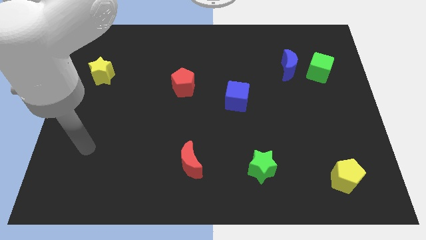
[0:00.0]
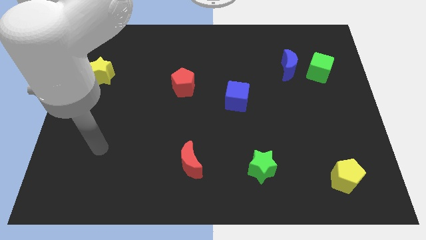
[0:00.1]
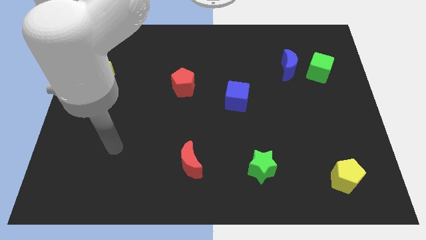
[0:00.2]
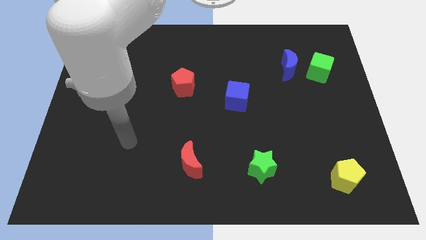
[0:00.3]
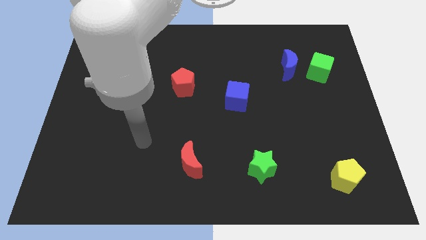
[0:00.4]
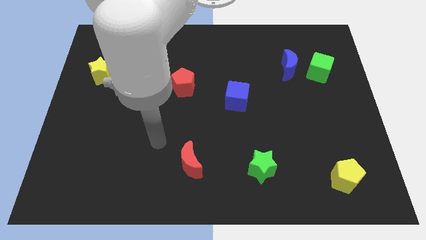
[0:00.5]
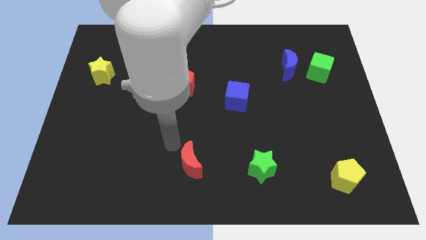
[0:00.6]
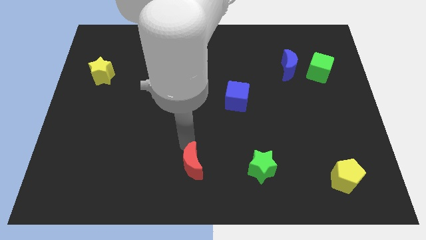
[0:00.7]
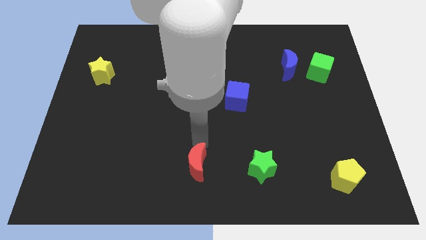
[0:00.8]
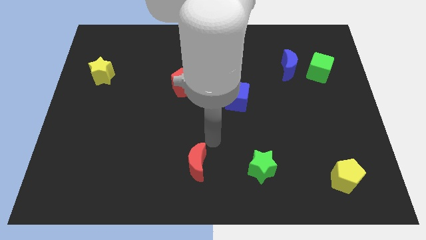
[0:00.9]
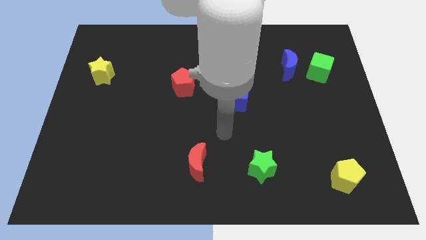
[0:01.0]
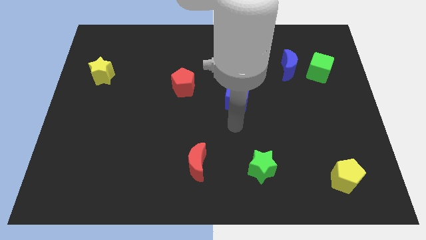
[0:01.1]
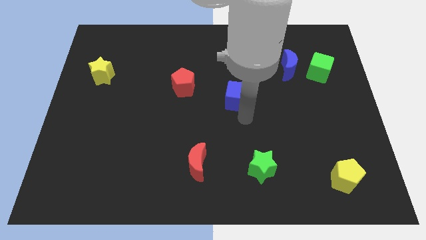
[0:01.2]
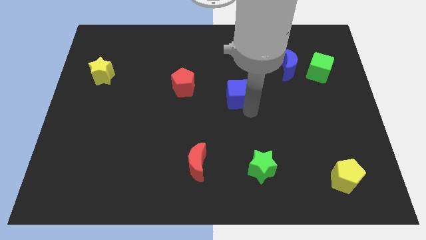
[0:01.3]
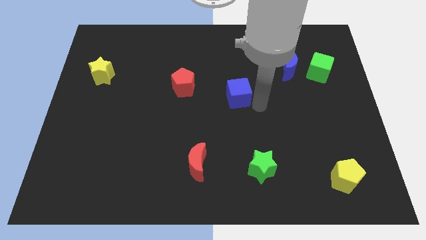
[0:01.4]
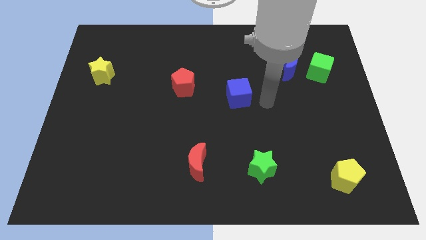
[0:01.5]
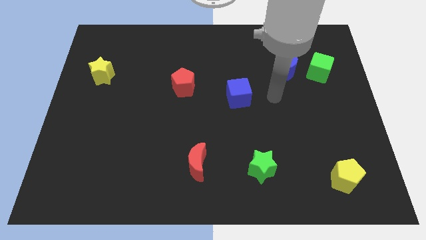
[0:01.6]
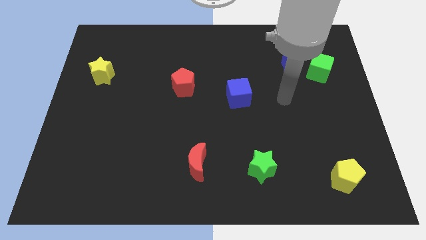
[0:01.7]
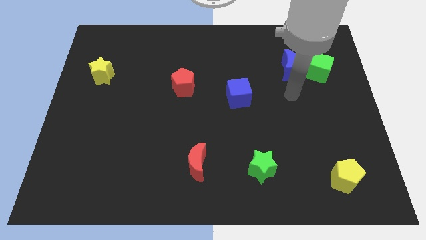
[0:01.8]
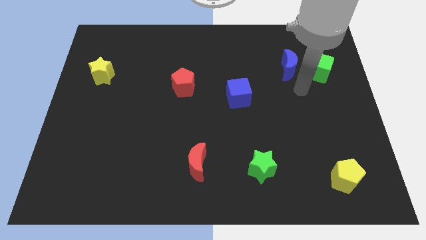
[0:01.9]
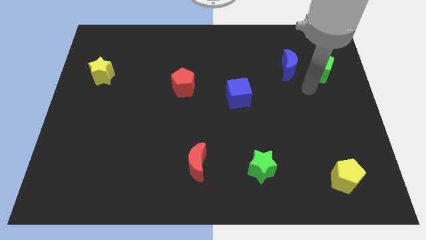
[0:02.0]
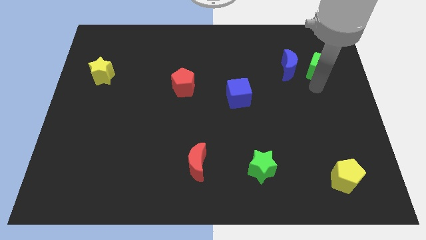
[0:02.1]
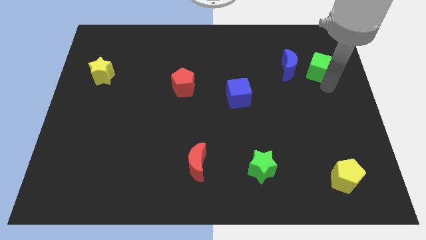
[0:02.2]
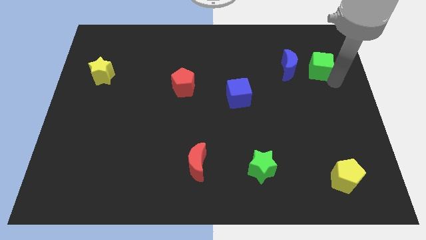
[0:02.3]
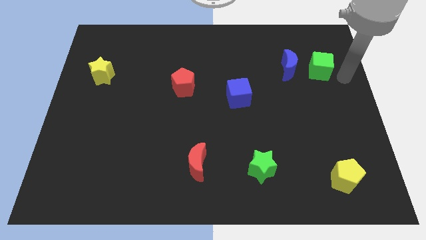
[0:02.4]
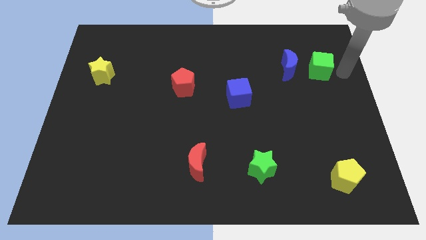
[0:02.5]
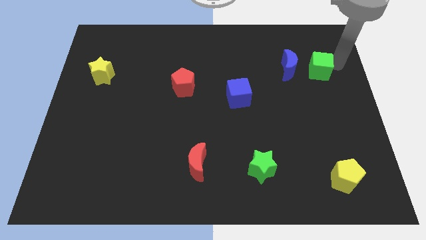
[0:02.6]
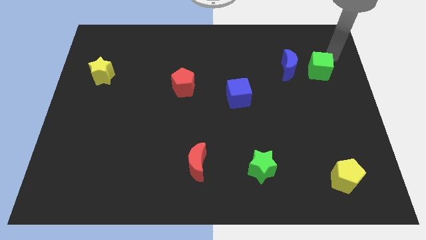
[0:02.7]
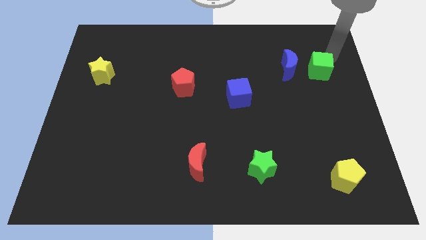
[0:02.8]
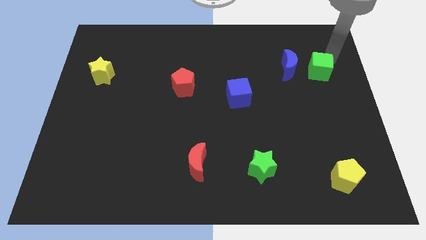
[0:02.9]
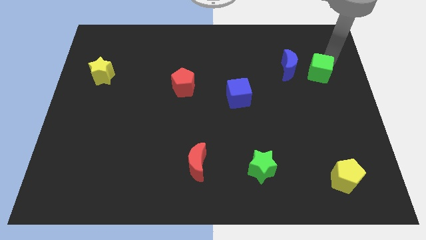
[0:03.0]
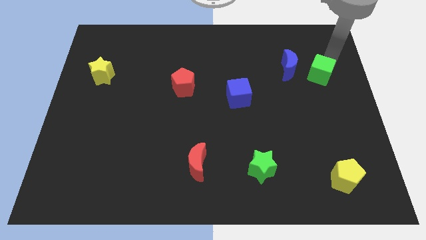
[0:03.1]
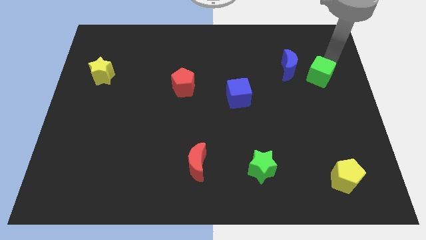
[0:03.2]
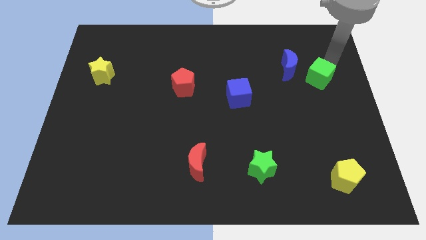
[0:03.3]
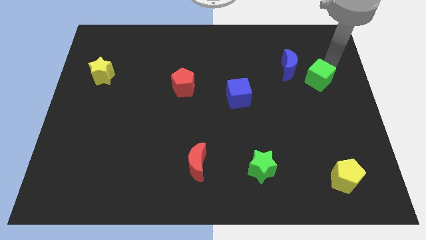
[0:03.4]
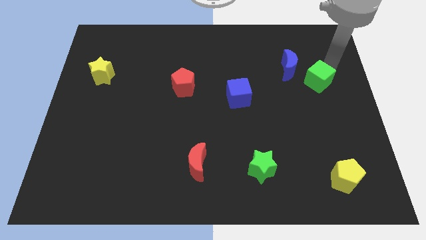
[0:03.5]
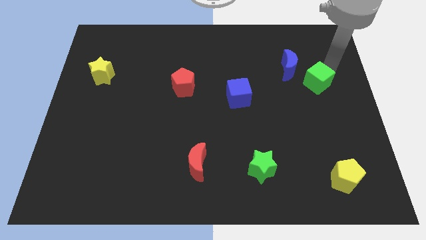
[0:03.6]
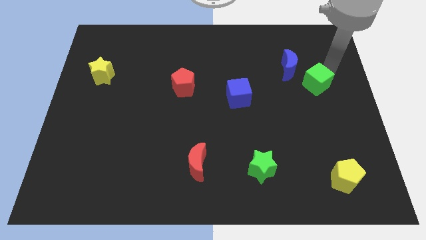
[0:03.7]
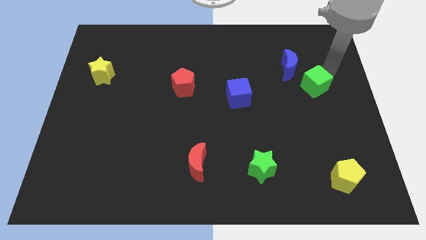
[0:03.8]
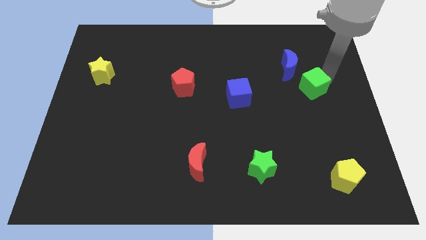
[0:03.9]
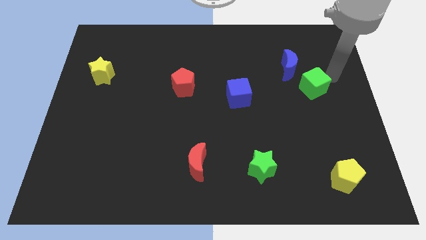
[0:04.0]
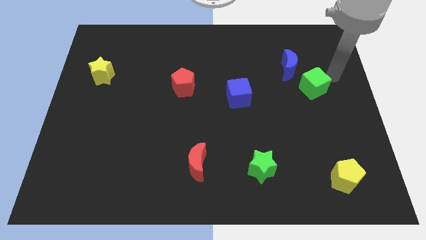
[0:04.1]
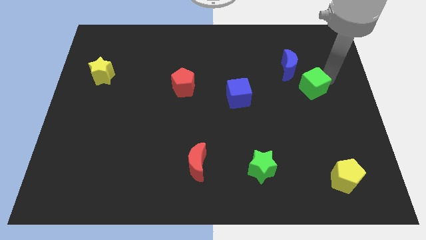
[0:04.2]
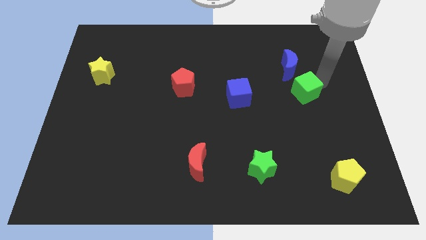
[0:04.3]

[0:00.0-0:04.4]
push the green cube a little downwards and left diagonally

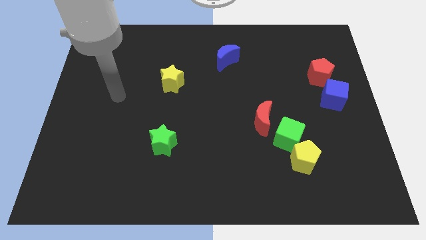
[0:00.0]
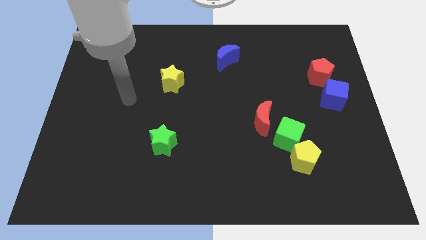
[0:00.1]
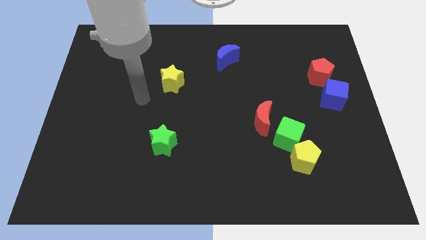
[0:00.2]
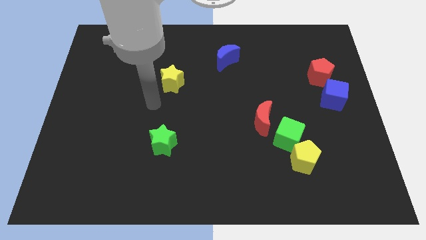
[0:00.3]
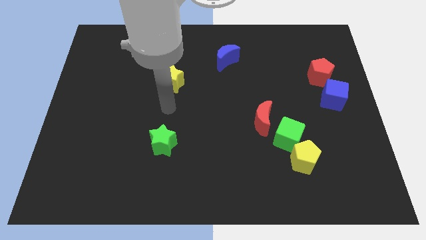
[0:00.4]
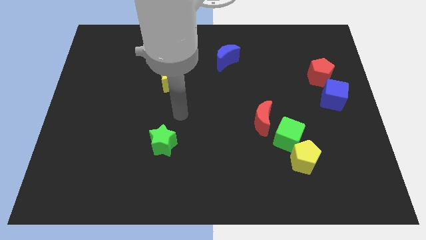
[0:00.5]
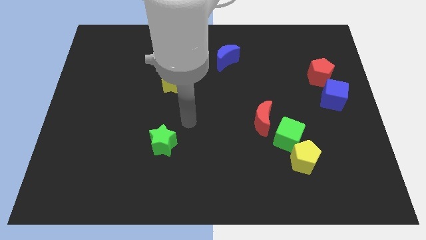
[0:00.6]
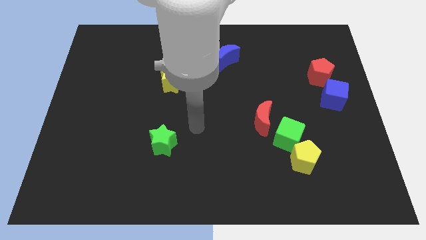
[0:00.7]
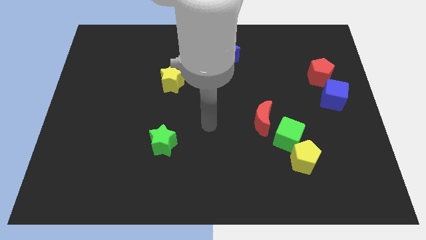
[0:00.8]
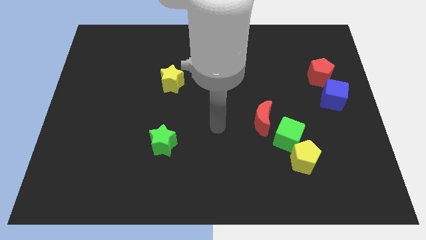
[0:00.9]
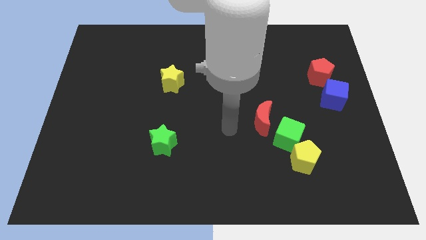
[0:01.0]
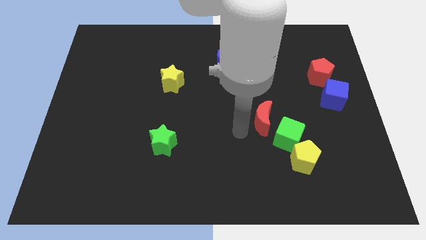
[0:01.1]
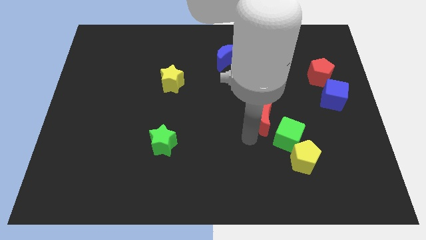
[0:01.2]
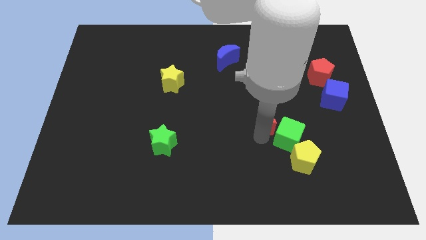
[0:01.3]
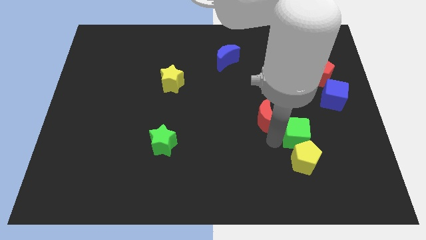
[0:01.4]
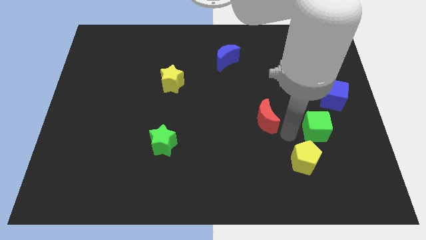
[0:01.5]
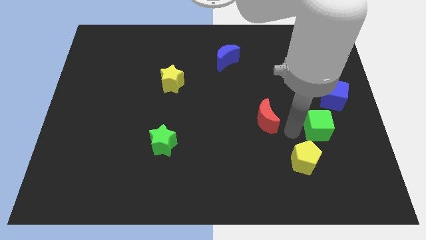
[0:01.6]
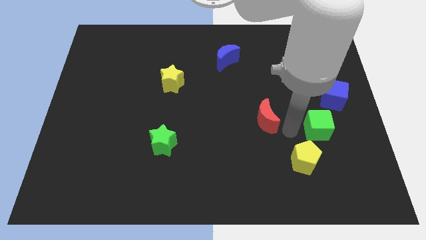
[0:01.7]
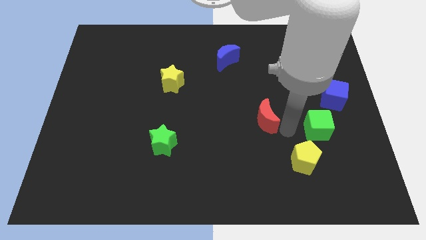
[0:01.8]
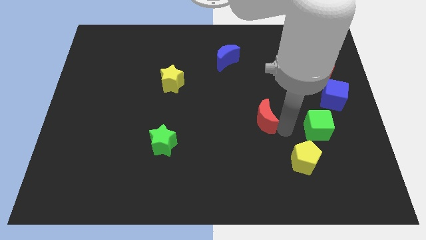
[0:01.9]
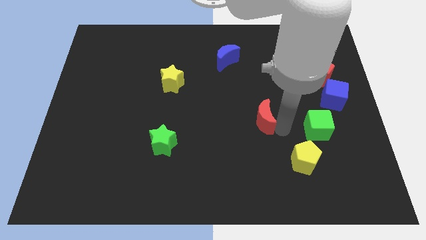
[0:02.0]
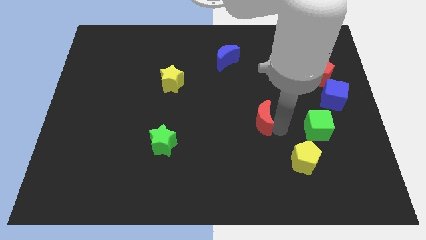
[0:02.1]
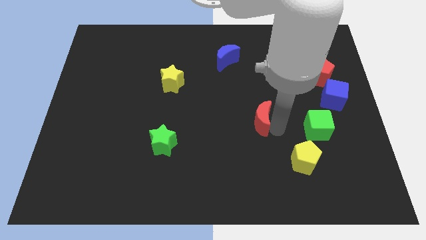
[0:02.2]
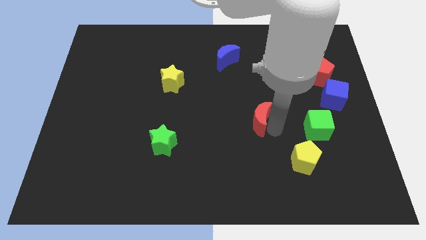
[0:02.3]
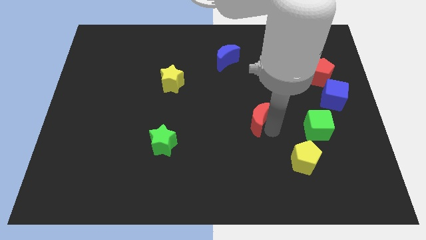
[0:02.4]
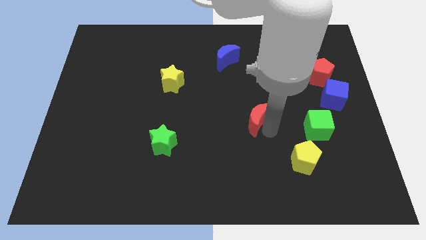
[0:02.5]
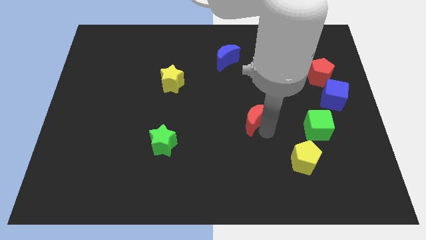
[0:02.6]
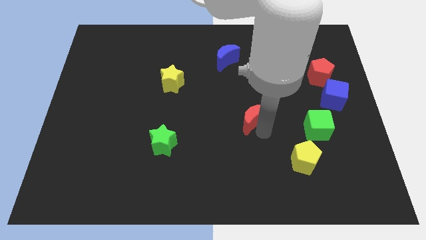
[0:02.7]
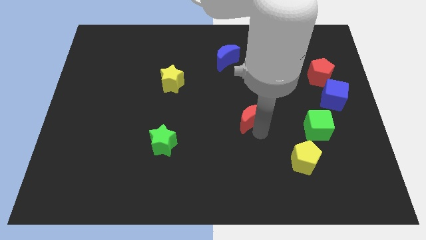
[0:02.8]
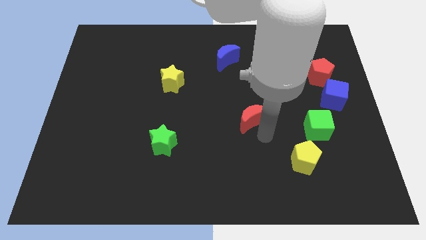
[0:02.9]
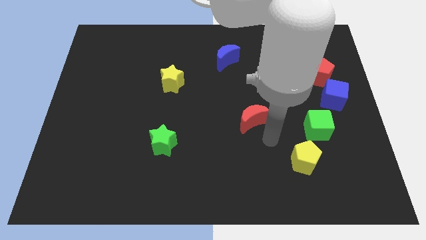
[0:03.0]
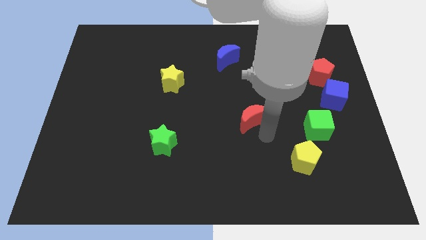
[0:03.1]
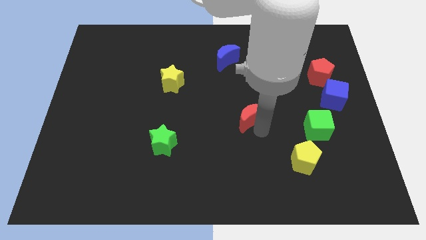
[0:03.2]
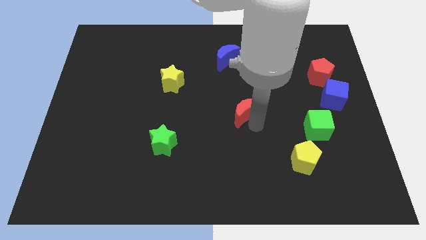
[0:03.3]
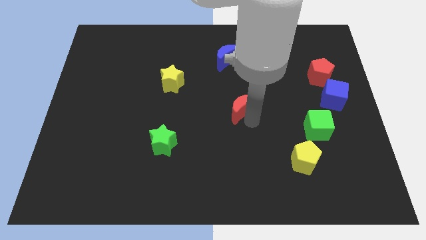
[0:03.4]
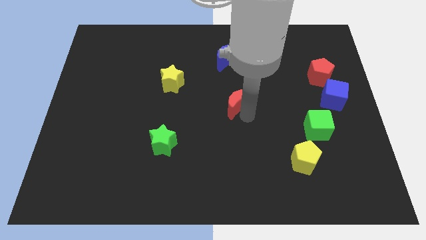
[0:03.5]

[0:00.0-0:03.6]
slightly push the red moon diagonally upwards and left
